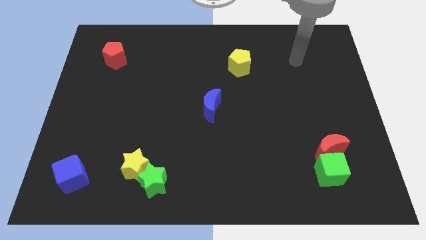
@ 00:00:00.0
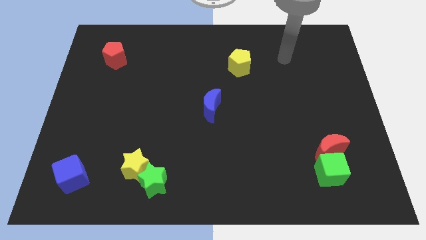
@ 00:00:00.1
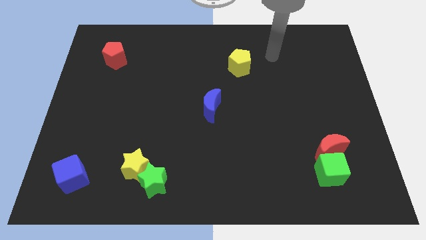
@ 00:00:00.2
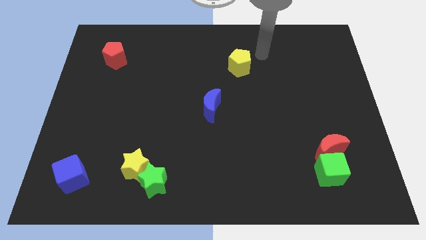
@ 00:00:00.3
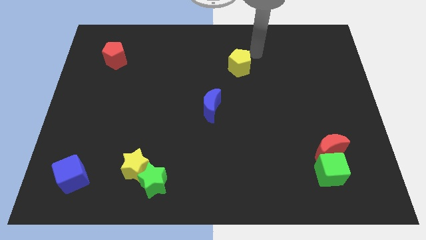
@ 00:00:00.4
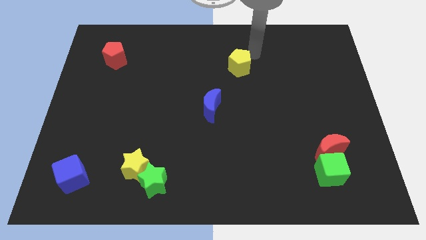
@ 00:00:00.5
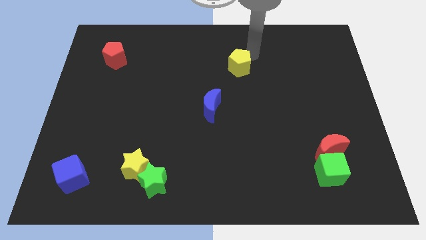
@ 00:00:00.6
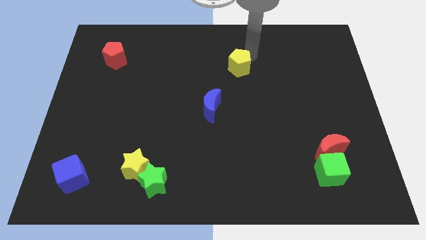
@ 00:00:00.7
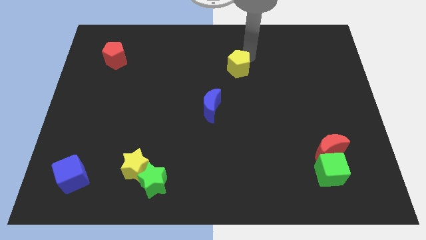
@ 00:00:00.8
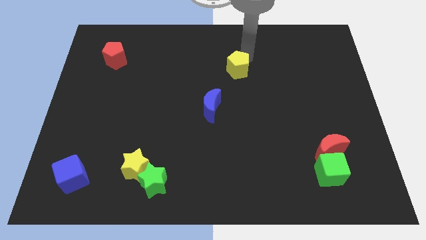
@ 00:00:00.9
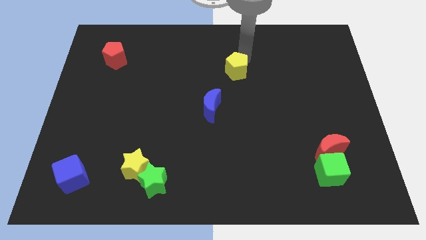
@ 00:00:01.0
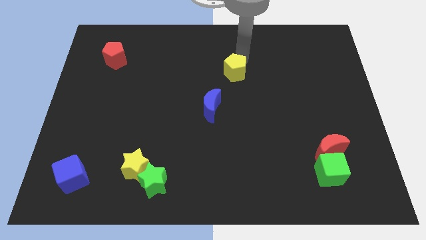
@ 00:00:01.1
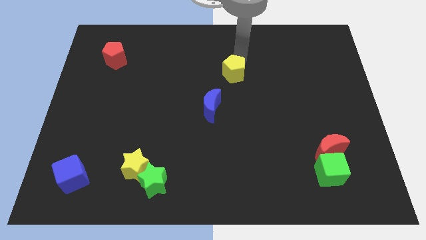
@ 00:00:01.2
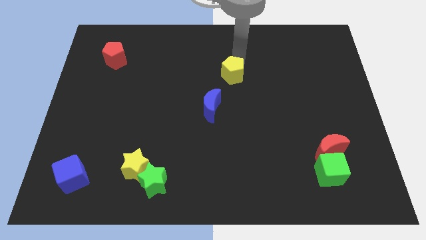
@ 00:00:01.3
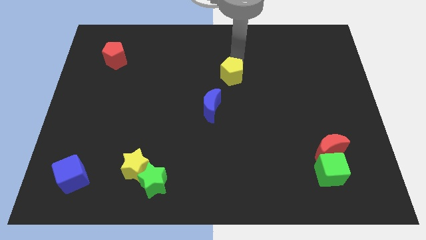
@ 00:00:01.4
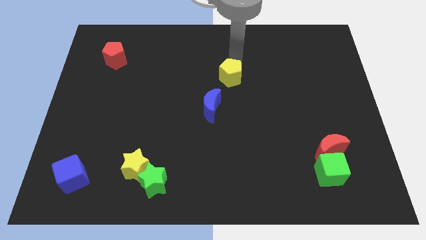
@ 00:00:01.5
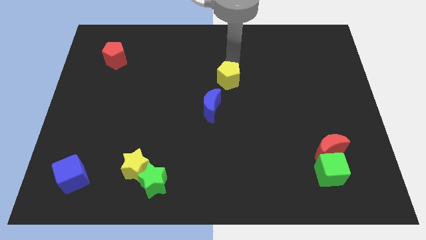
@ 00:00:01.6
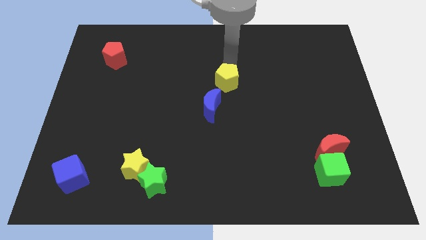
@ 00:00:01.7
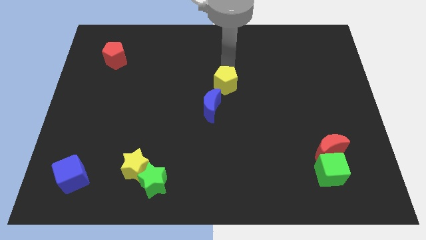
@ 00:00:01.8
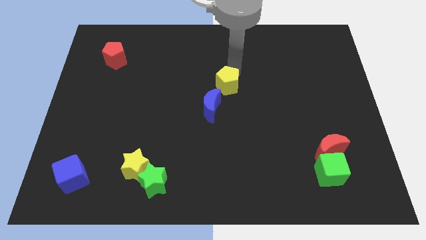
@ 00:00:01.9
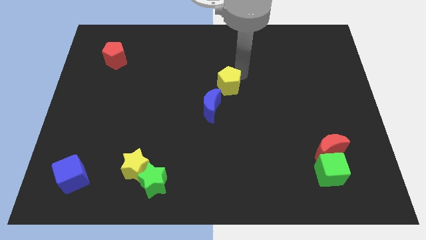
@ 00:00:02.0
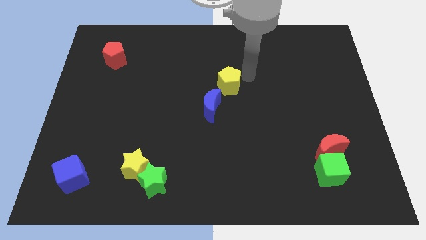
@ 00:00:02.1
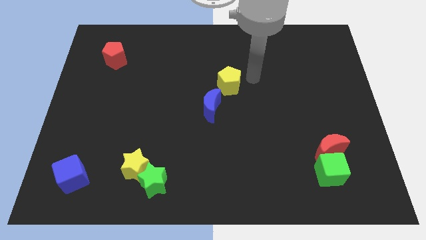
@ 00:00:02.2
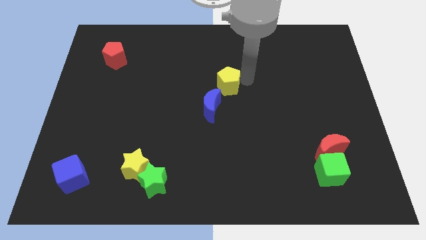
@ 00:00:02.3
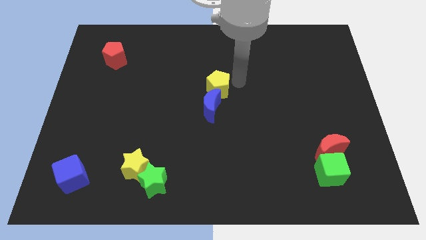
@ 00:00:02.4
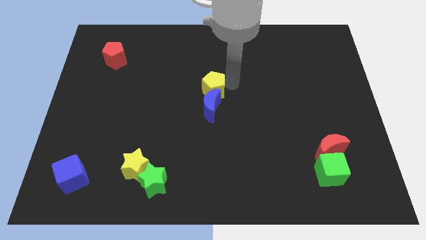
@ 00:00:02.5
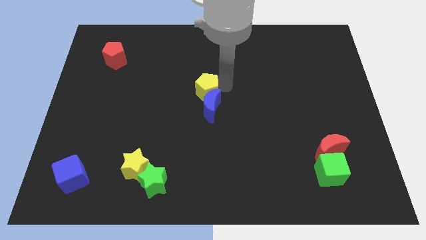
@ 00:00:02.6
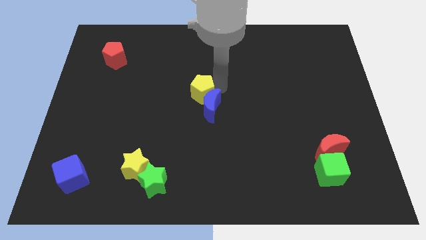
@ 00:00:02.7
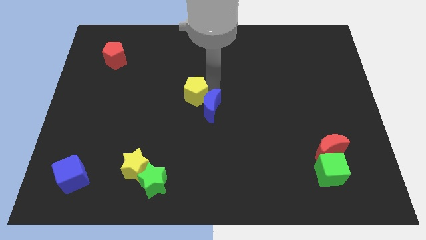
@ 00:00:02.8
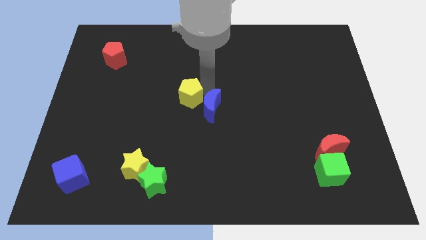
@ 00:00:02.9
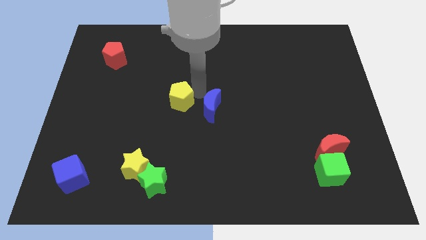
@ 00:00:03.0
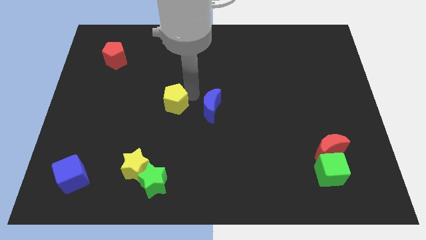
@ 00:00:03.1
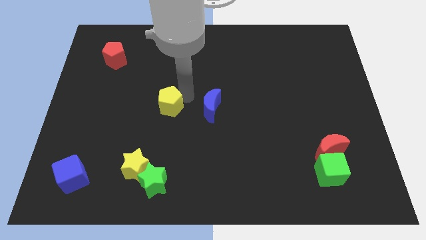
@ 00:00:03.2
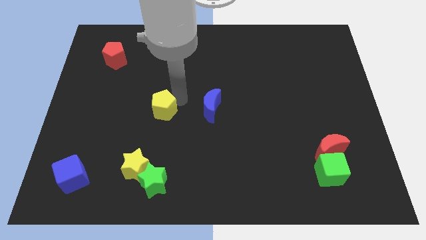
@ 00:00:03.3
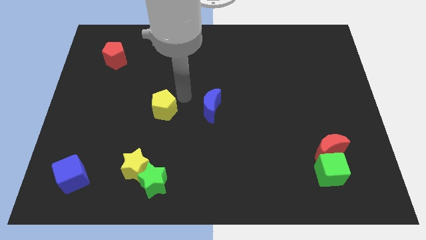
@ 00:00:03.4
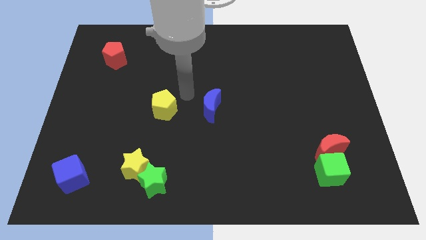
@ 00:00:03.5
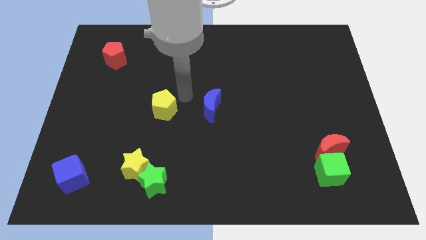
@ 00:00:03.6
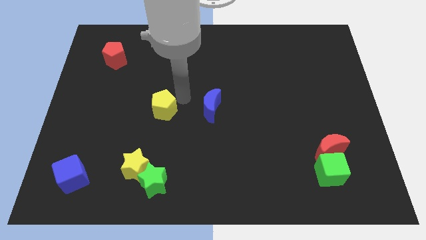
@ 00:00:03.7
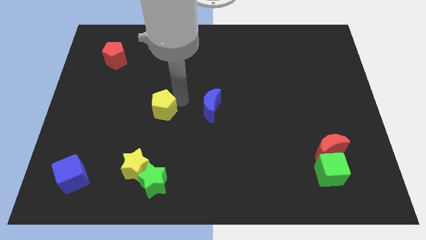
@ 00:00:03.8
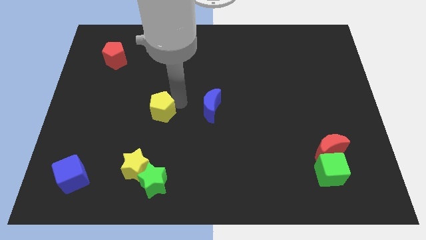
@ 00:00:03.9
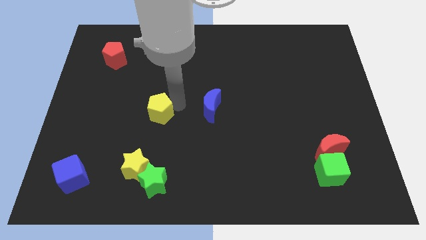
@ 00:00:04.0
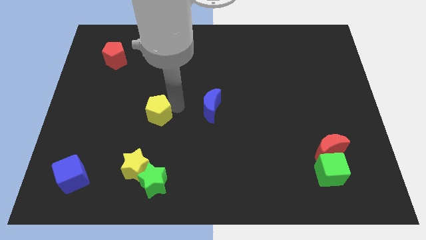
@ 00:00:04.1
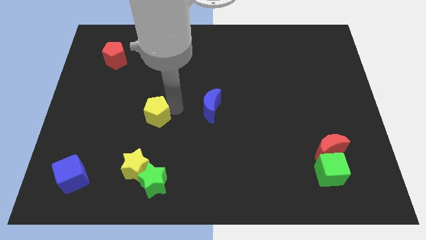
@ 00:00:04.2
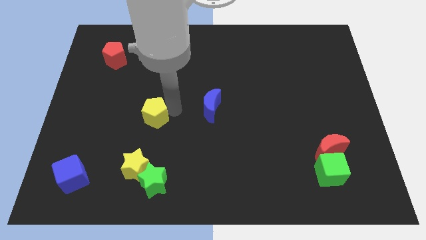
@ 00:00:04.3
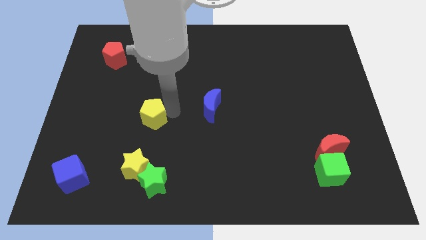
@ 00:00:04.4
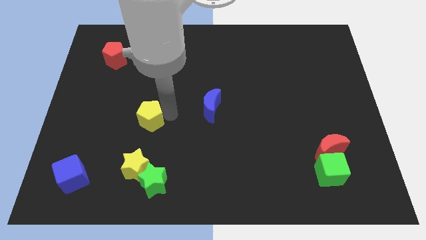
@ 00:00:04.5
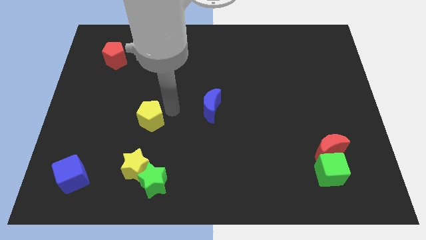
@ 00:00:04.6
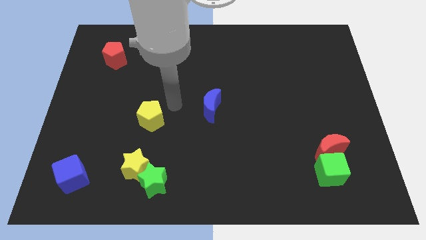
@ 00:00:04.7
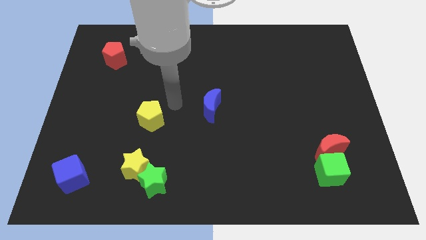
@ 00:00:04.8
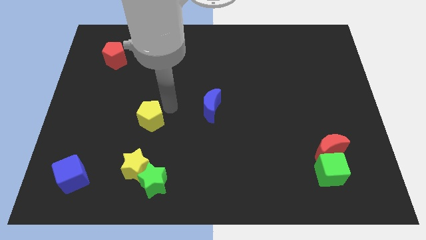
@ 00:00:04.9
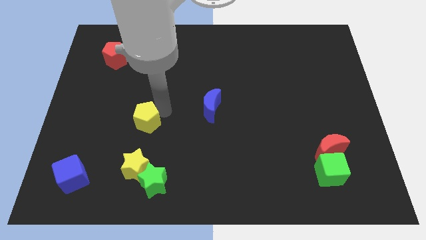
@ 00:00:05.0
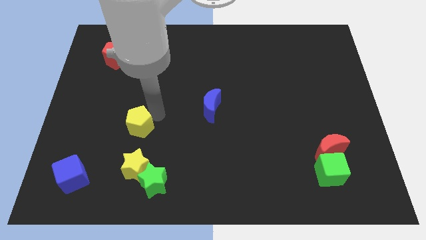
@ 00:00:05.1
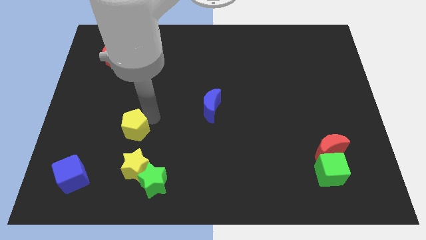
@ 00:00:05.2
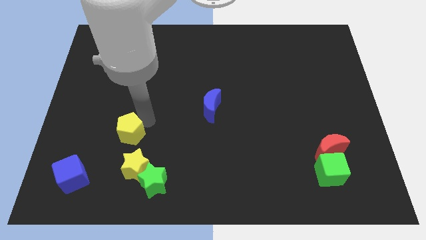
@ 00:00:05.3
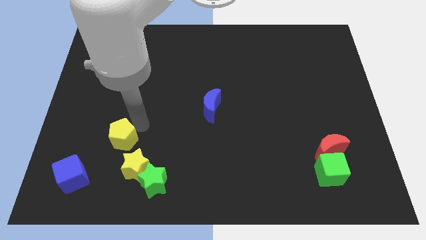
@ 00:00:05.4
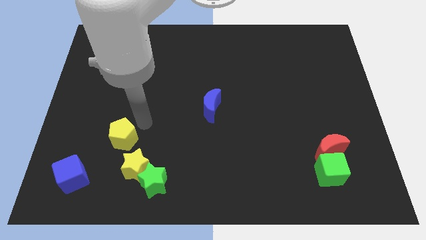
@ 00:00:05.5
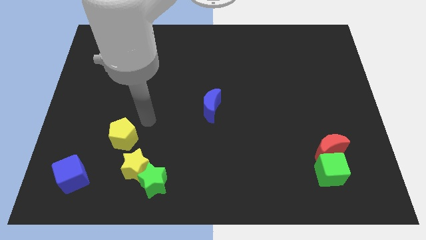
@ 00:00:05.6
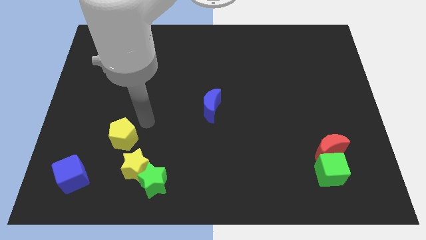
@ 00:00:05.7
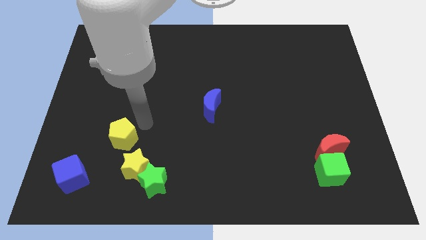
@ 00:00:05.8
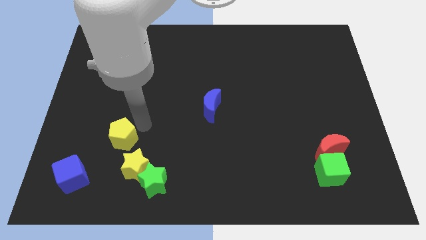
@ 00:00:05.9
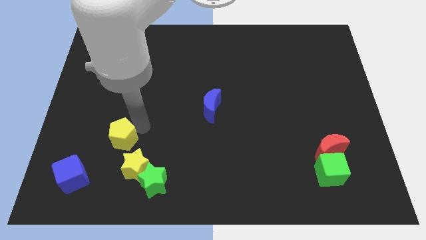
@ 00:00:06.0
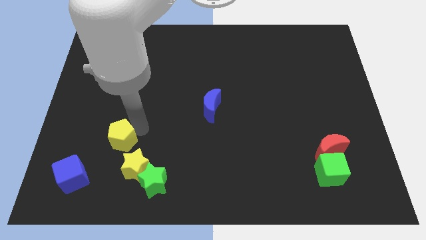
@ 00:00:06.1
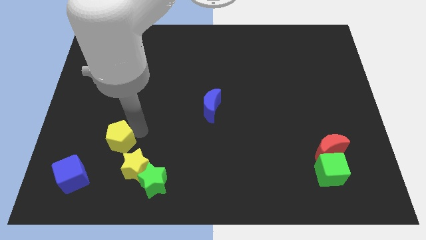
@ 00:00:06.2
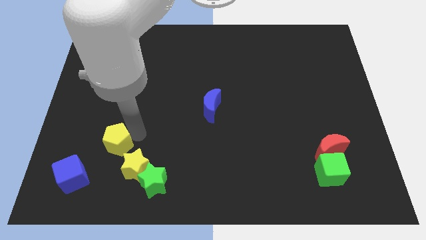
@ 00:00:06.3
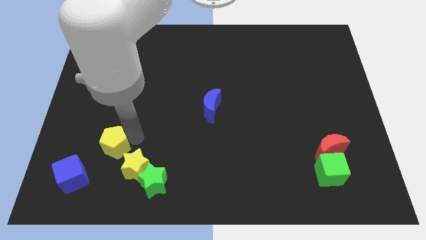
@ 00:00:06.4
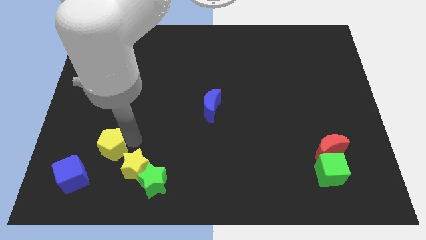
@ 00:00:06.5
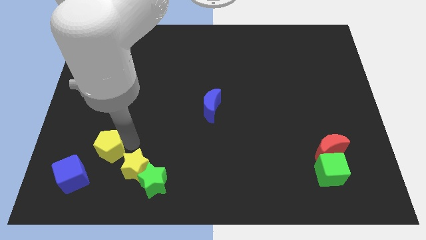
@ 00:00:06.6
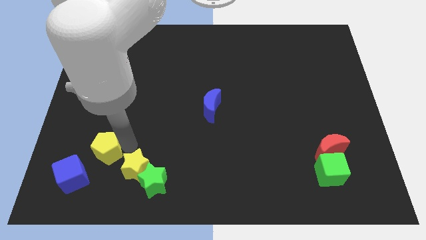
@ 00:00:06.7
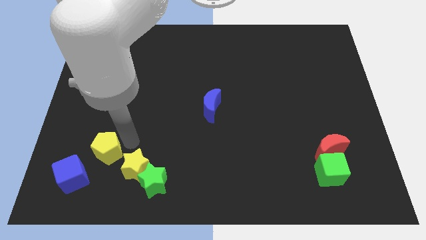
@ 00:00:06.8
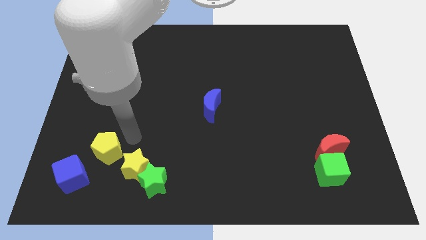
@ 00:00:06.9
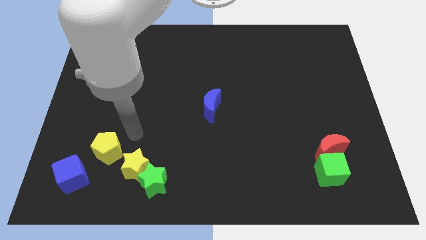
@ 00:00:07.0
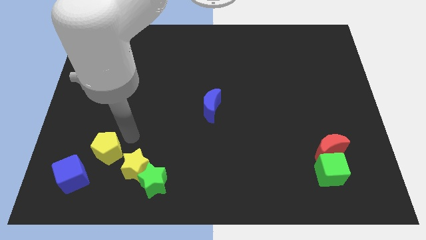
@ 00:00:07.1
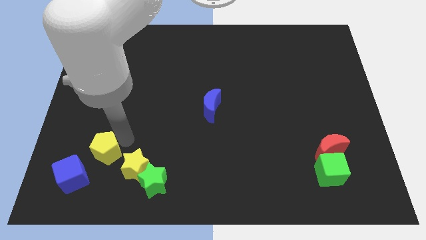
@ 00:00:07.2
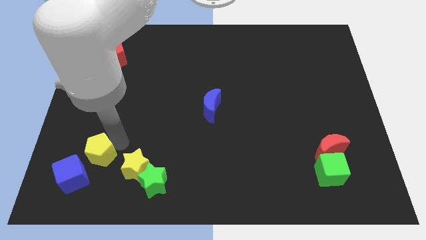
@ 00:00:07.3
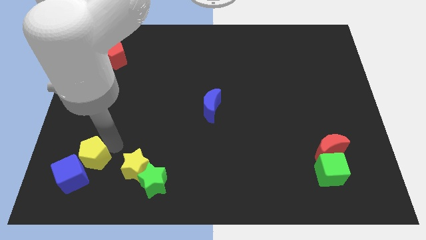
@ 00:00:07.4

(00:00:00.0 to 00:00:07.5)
put the yellow pentagon to the blue cube
